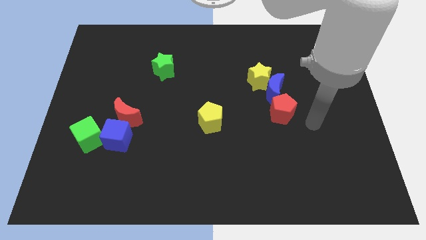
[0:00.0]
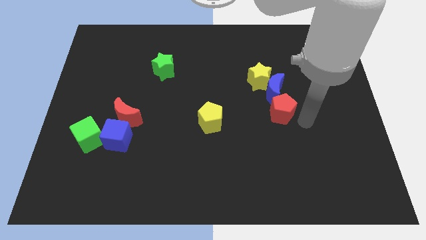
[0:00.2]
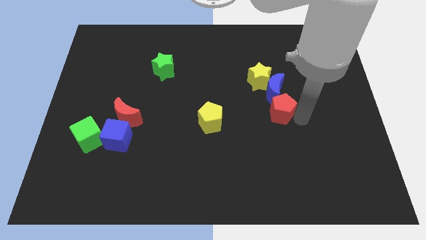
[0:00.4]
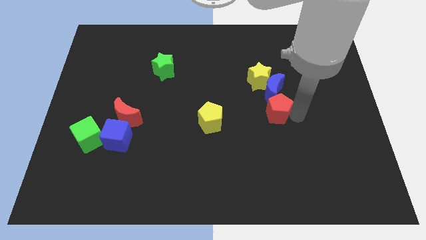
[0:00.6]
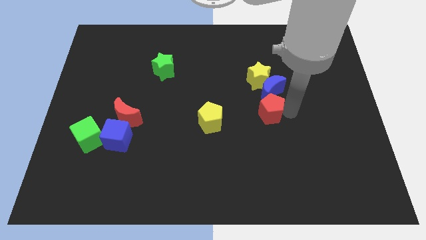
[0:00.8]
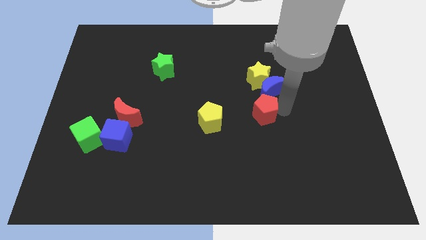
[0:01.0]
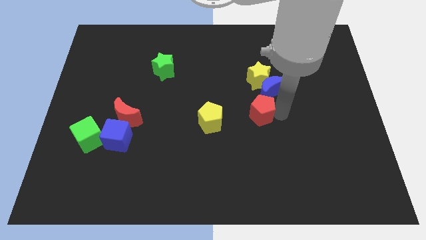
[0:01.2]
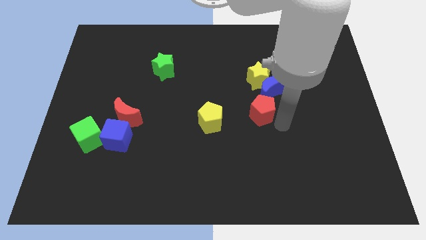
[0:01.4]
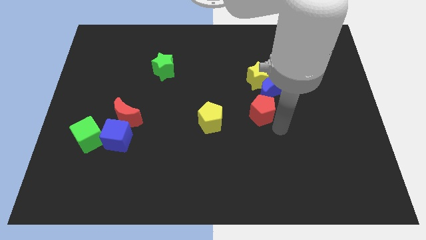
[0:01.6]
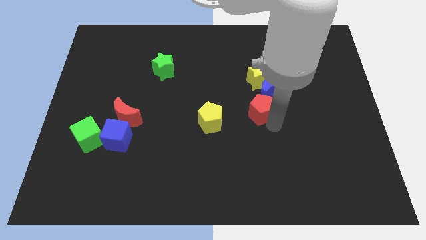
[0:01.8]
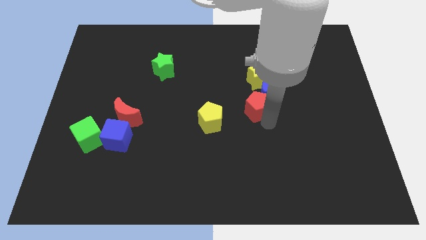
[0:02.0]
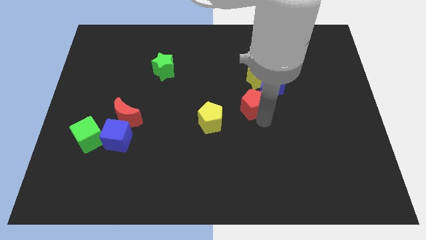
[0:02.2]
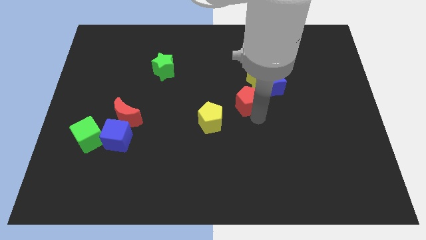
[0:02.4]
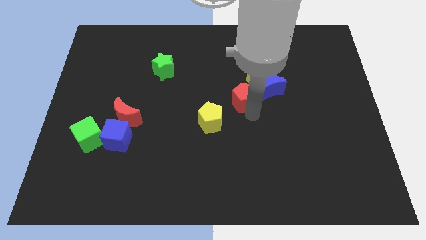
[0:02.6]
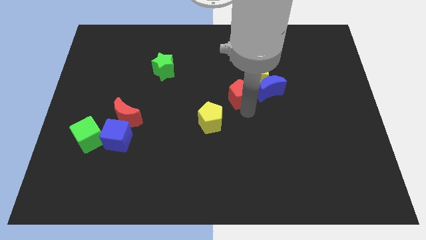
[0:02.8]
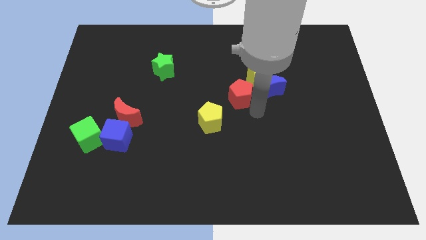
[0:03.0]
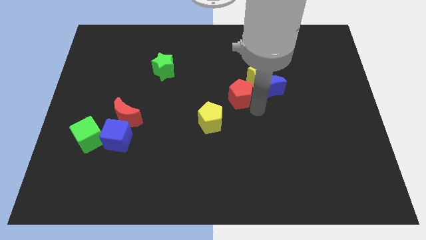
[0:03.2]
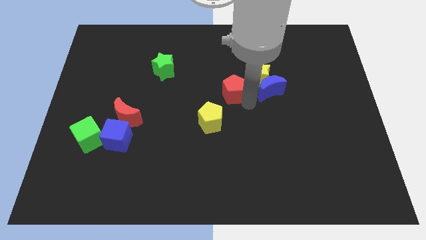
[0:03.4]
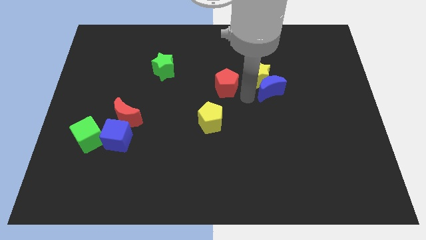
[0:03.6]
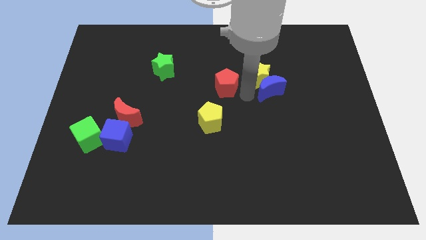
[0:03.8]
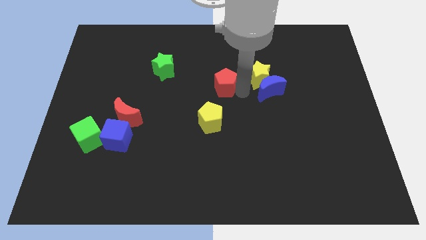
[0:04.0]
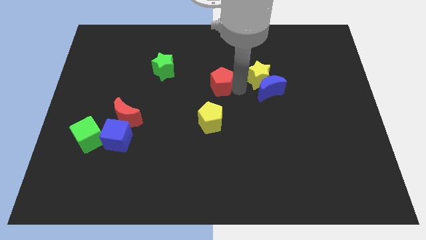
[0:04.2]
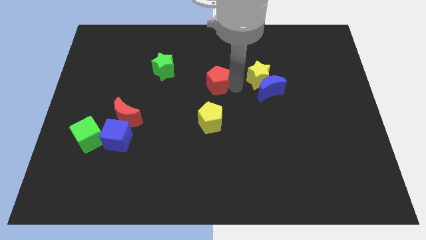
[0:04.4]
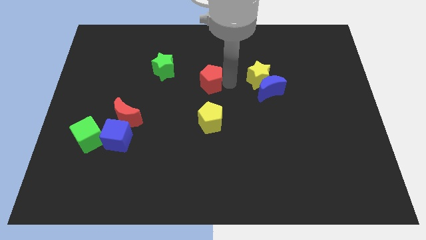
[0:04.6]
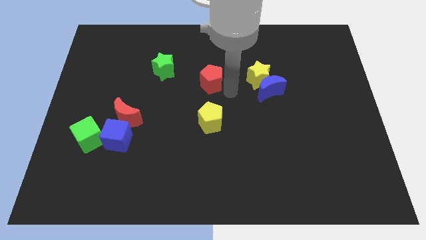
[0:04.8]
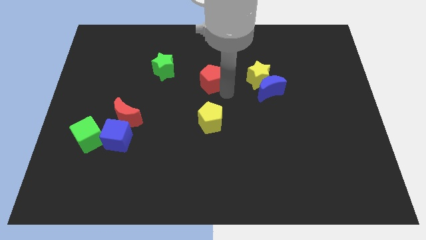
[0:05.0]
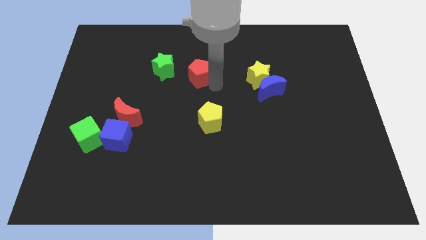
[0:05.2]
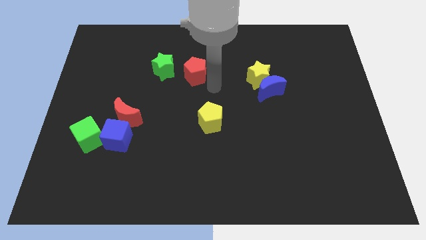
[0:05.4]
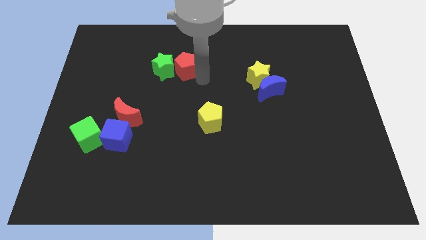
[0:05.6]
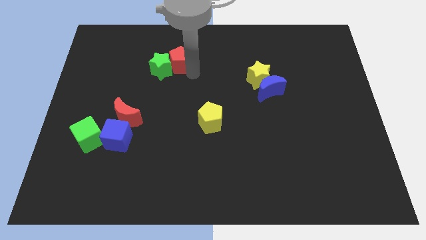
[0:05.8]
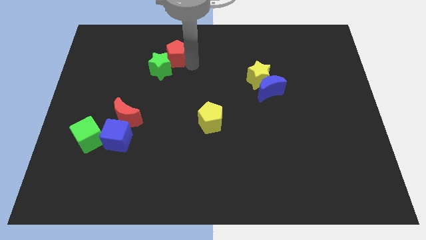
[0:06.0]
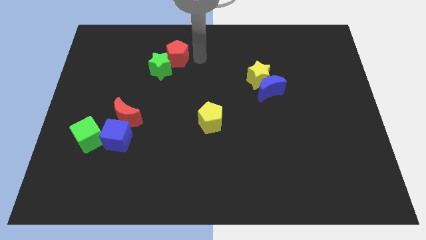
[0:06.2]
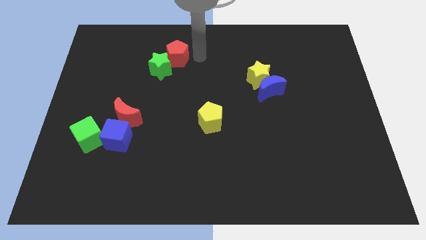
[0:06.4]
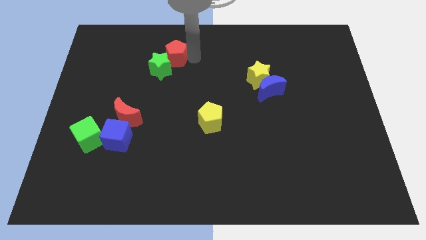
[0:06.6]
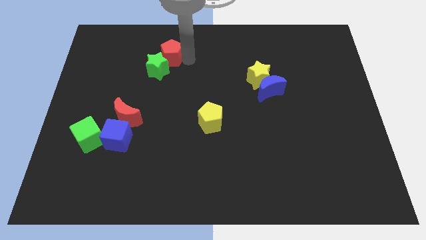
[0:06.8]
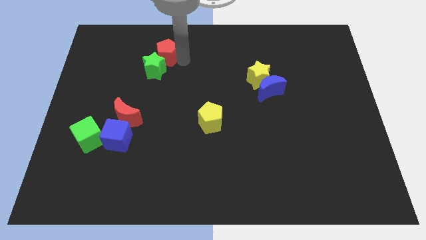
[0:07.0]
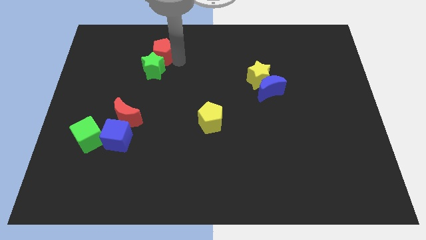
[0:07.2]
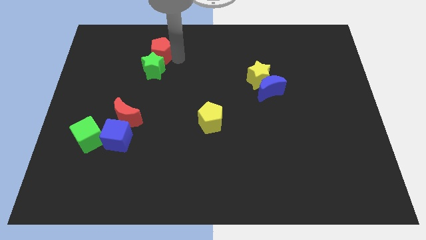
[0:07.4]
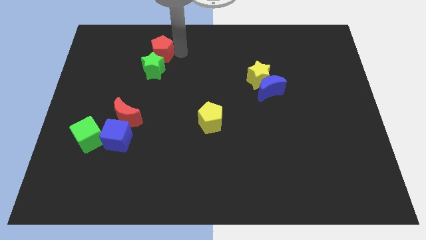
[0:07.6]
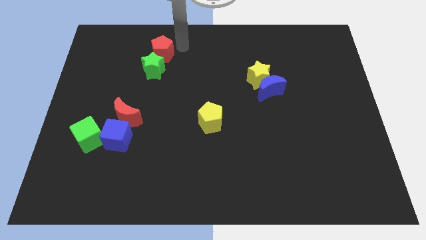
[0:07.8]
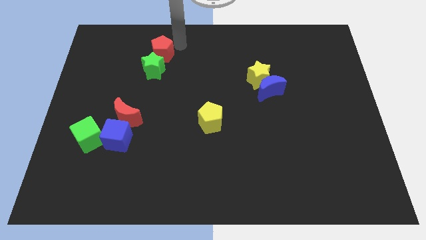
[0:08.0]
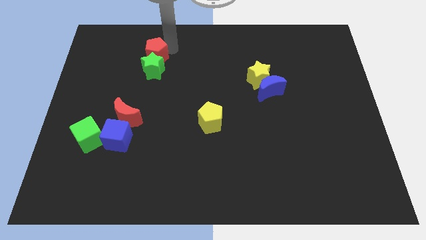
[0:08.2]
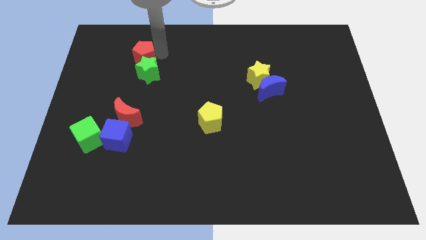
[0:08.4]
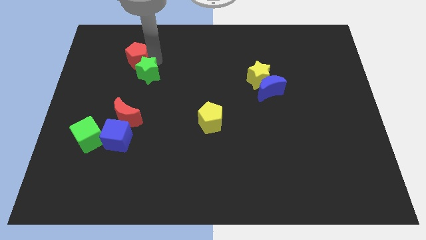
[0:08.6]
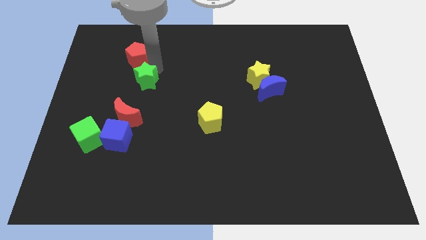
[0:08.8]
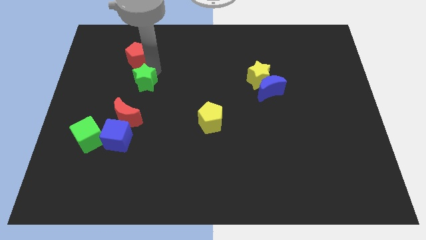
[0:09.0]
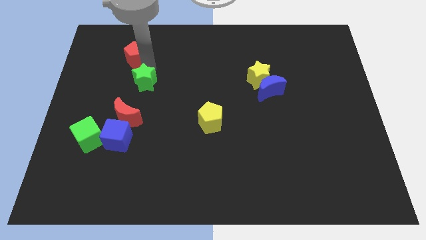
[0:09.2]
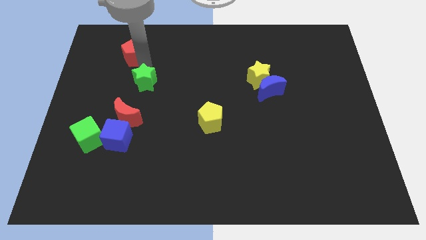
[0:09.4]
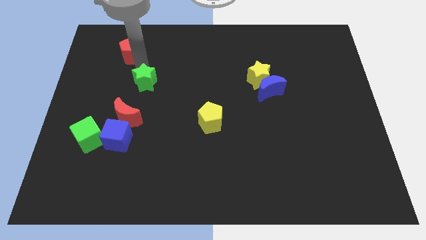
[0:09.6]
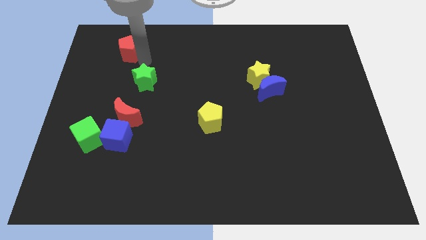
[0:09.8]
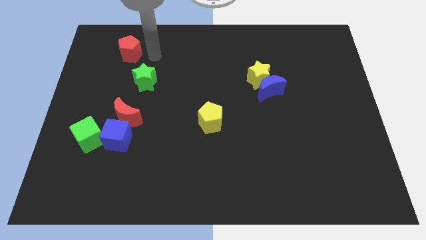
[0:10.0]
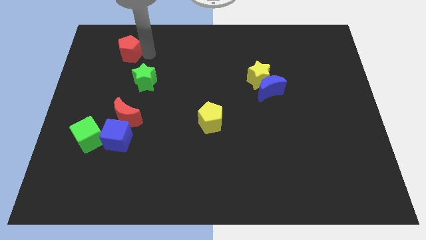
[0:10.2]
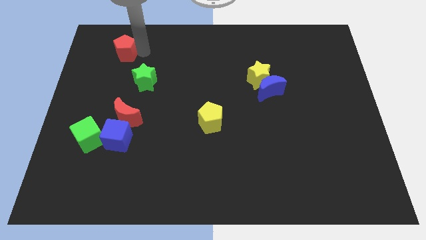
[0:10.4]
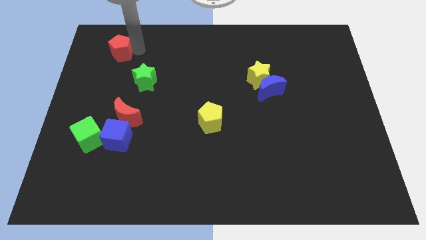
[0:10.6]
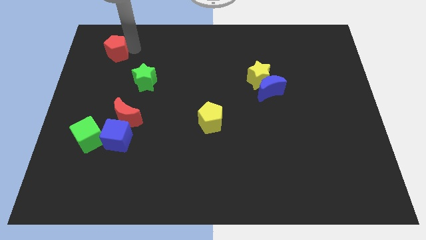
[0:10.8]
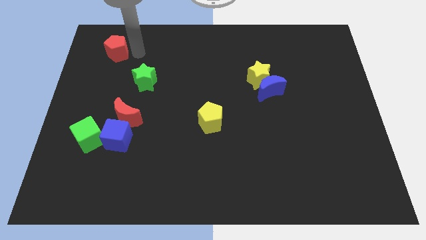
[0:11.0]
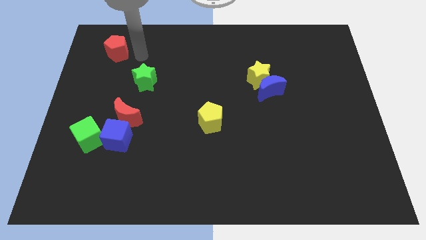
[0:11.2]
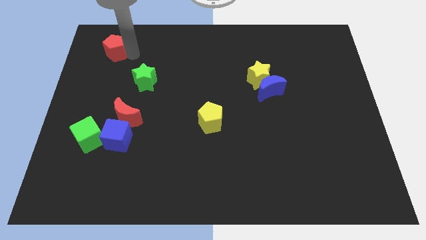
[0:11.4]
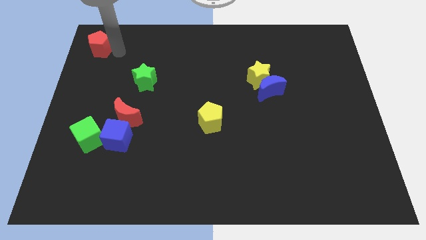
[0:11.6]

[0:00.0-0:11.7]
push the red pentagon to the top left corner
